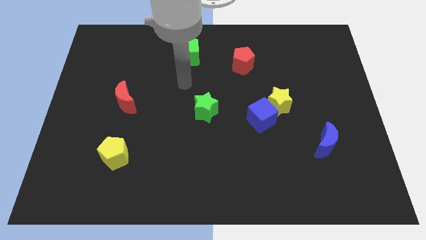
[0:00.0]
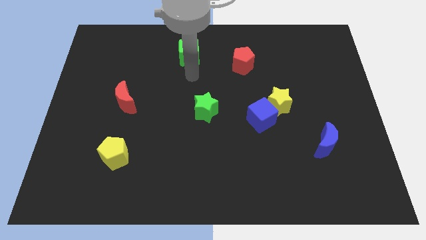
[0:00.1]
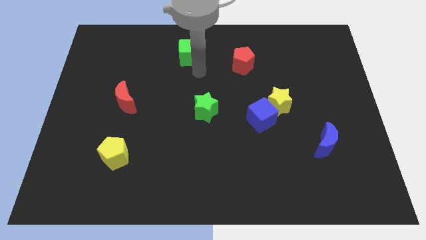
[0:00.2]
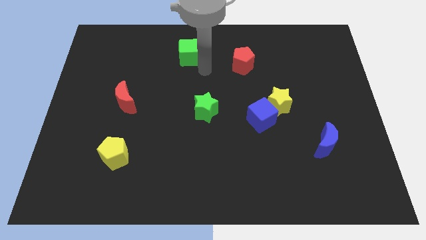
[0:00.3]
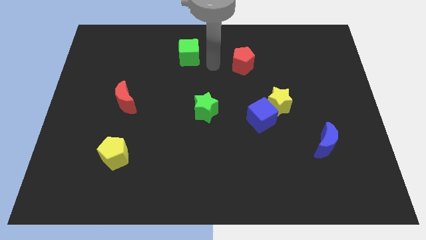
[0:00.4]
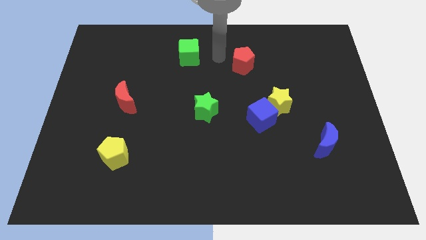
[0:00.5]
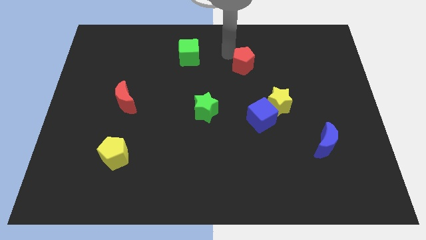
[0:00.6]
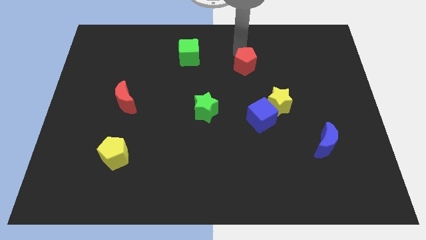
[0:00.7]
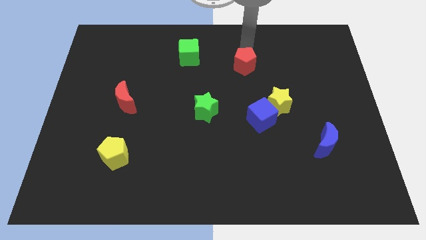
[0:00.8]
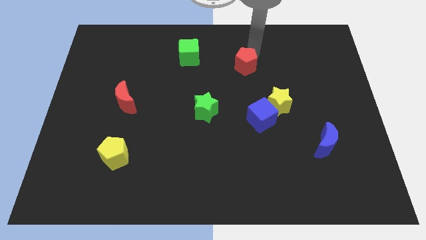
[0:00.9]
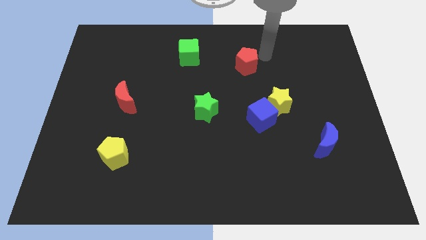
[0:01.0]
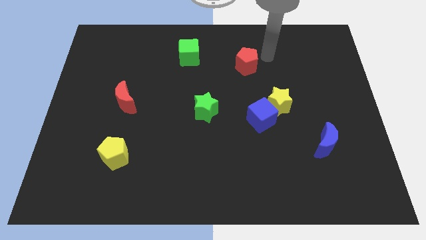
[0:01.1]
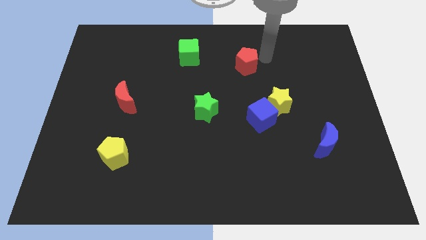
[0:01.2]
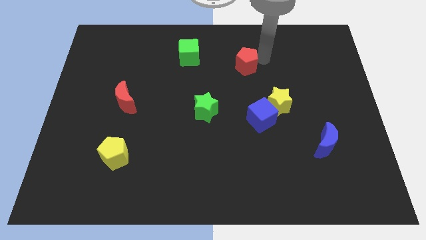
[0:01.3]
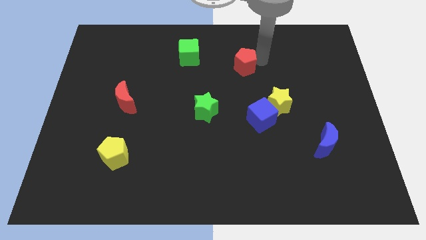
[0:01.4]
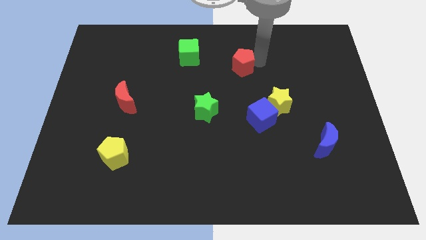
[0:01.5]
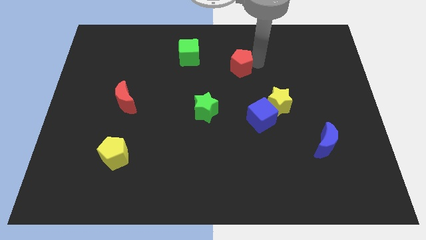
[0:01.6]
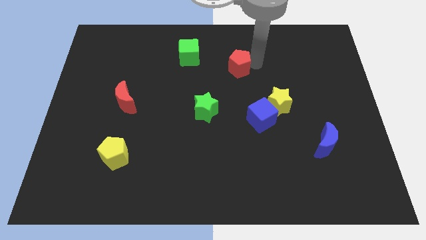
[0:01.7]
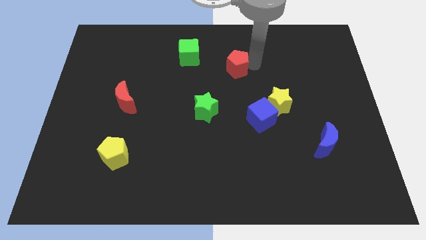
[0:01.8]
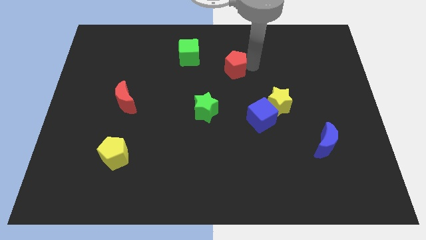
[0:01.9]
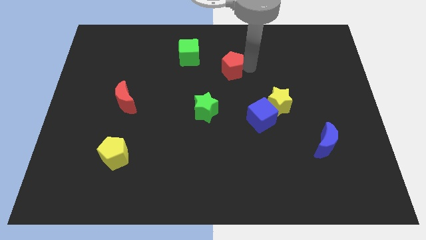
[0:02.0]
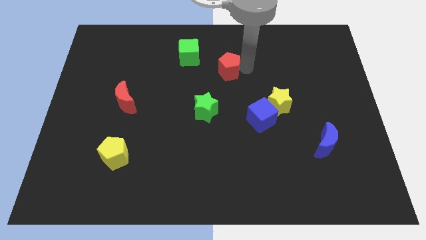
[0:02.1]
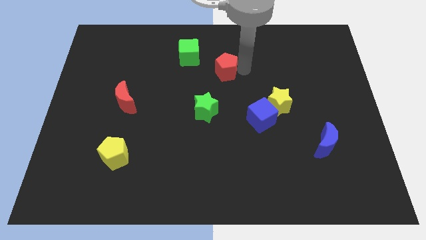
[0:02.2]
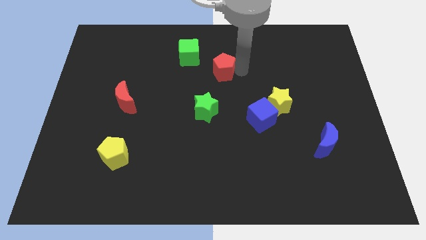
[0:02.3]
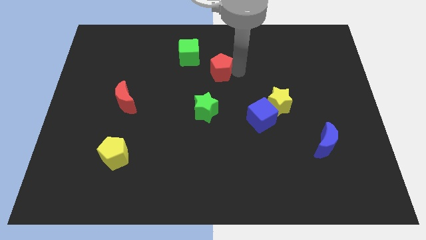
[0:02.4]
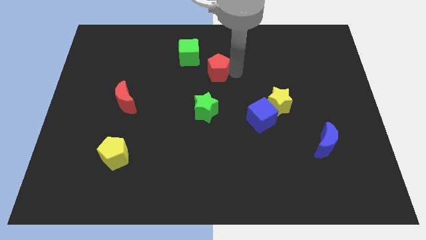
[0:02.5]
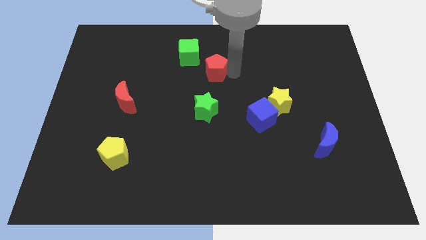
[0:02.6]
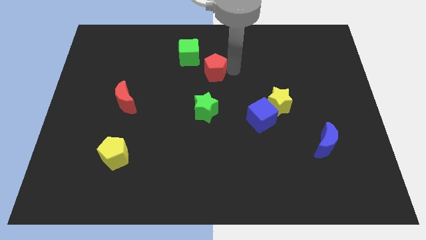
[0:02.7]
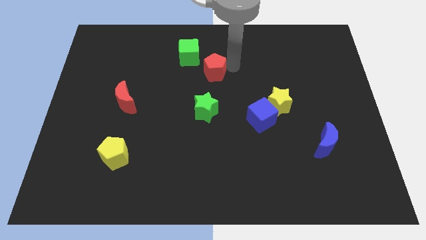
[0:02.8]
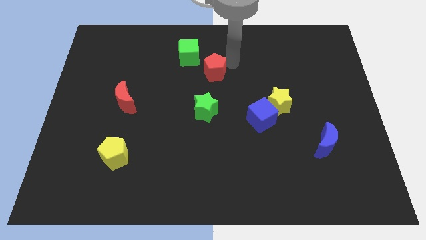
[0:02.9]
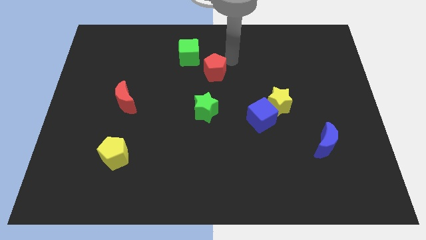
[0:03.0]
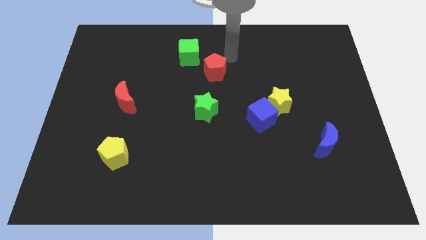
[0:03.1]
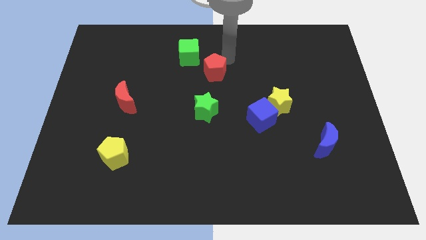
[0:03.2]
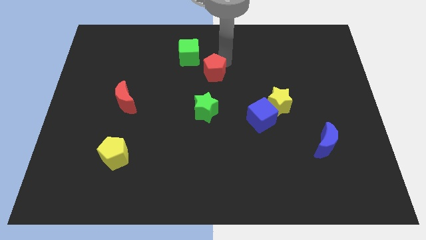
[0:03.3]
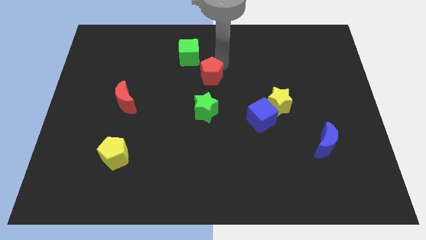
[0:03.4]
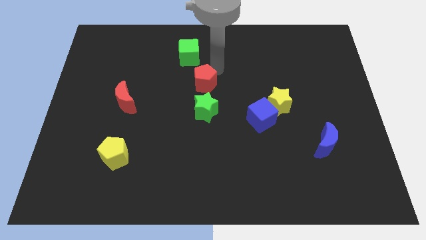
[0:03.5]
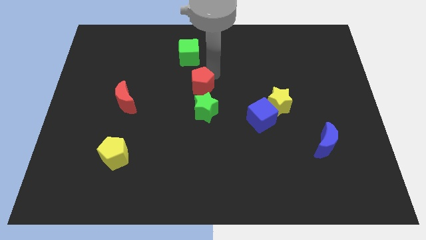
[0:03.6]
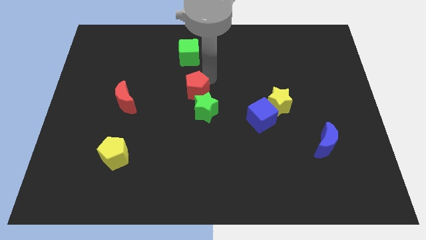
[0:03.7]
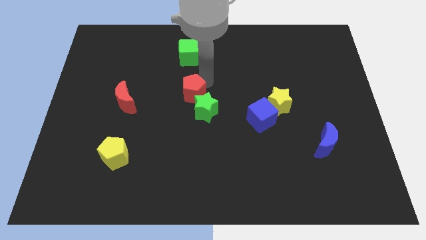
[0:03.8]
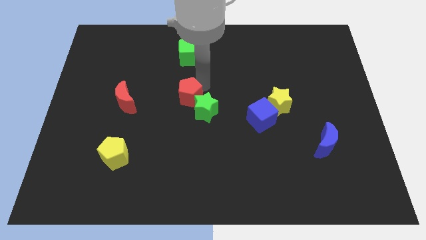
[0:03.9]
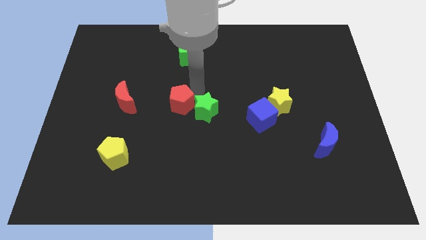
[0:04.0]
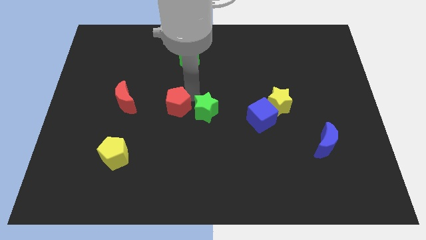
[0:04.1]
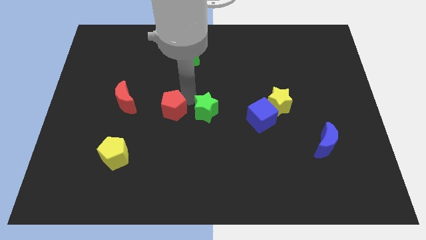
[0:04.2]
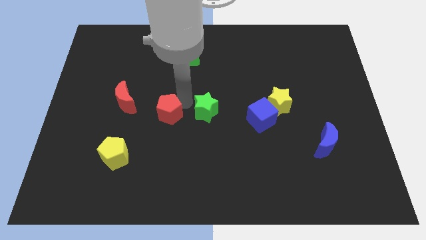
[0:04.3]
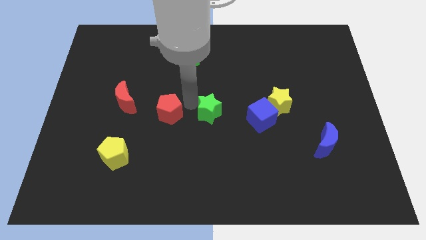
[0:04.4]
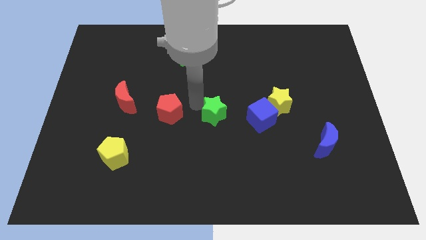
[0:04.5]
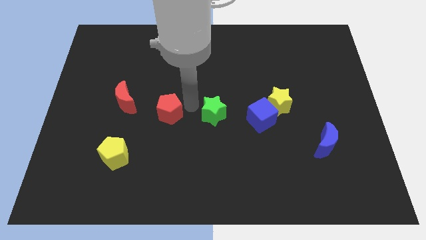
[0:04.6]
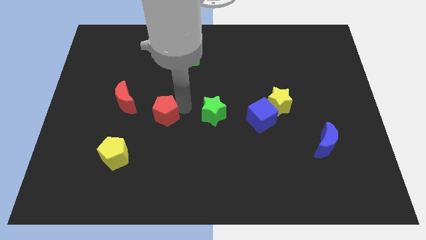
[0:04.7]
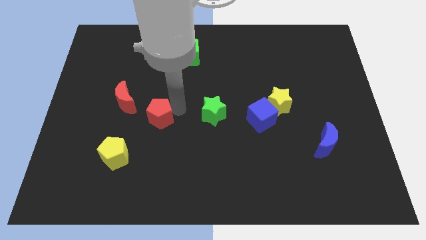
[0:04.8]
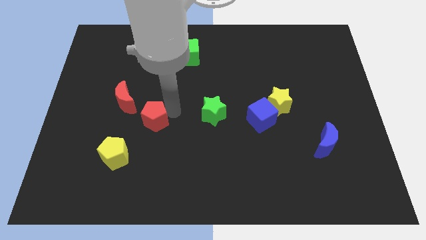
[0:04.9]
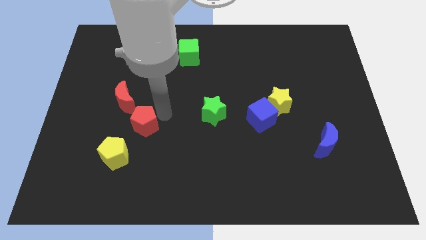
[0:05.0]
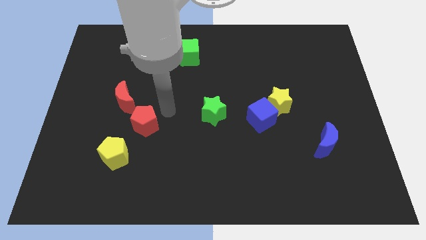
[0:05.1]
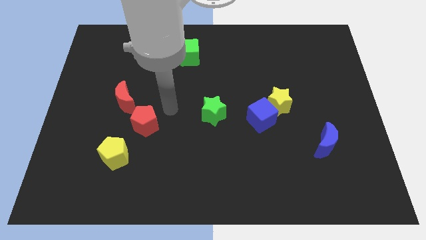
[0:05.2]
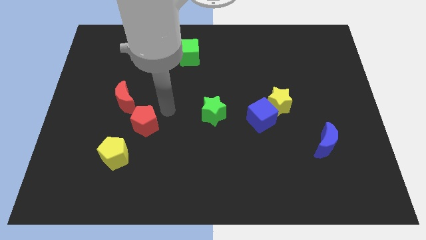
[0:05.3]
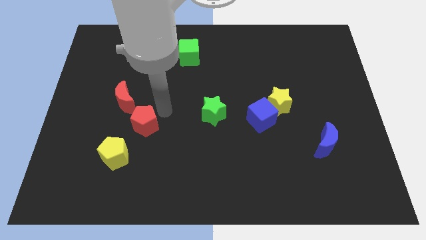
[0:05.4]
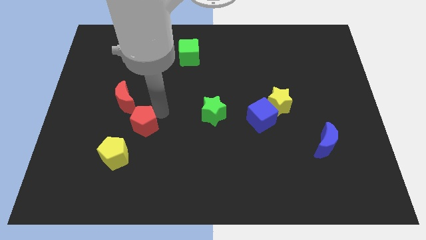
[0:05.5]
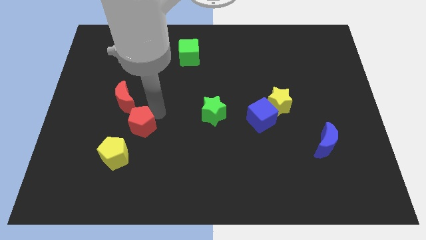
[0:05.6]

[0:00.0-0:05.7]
push the red pentagon to the bottom of the red moon

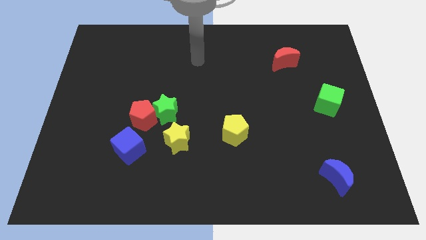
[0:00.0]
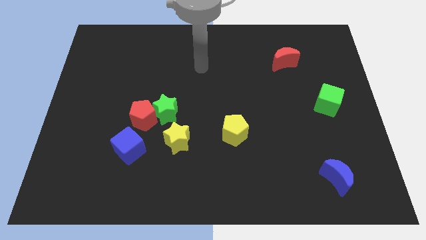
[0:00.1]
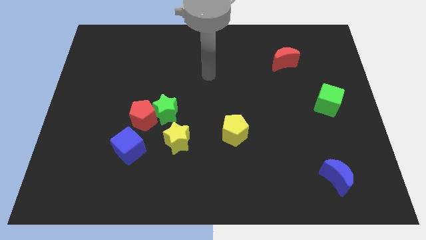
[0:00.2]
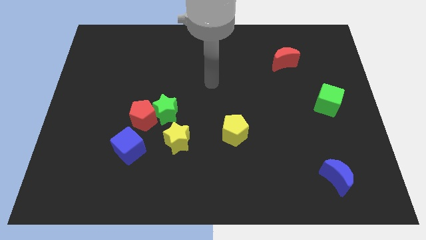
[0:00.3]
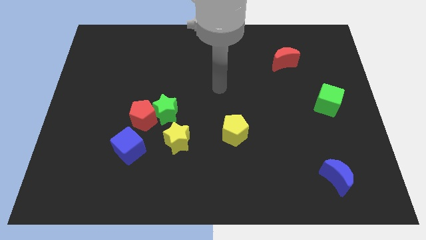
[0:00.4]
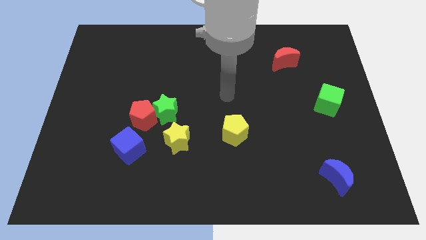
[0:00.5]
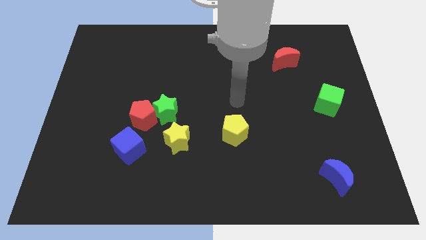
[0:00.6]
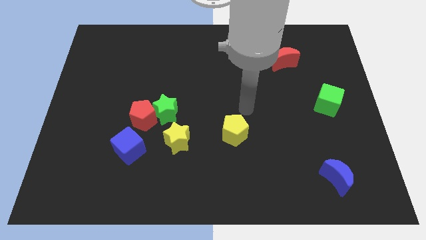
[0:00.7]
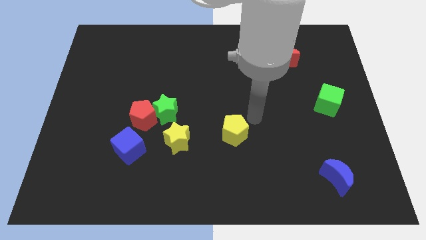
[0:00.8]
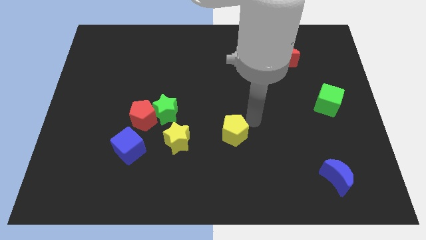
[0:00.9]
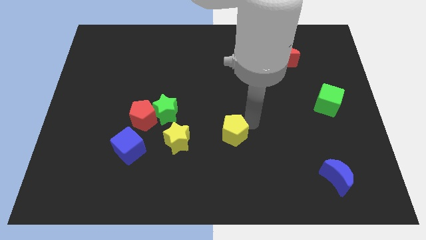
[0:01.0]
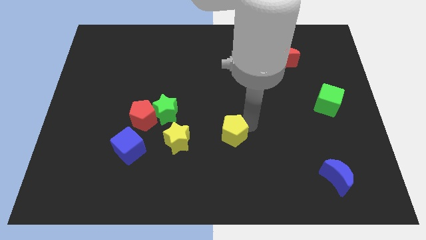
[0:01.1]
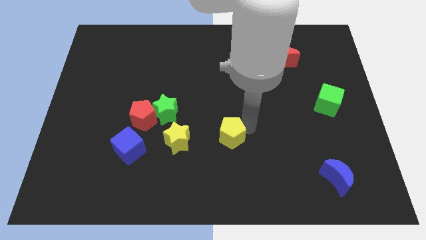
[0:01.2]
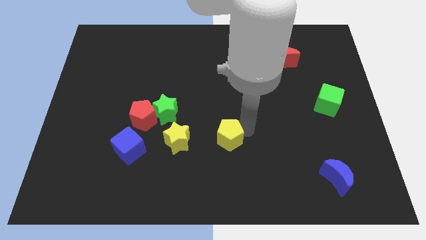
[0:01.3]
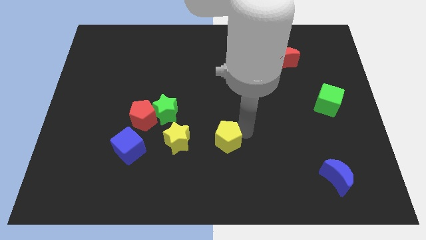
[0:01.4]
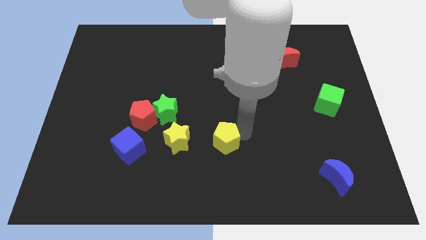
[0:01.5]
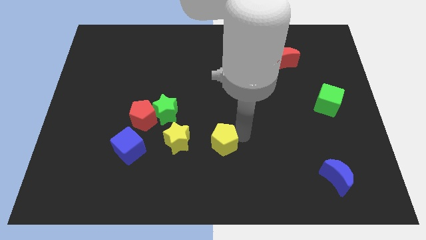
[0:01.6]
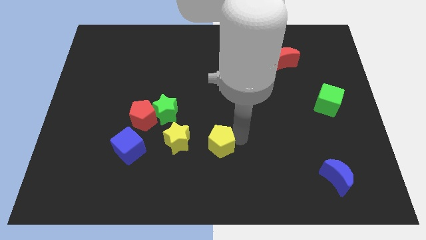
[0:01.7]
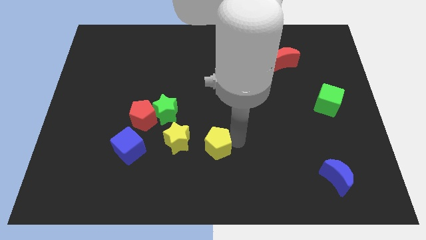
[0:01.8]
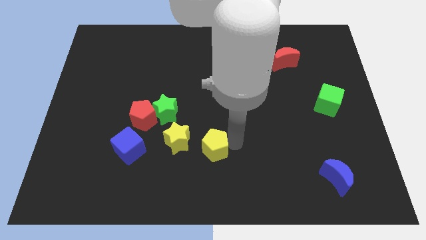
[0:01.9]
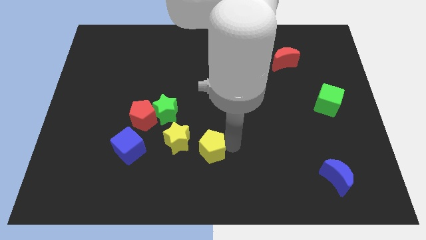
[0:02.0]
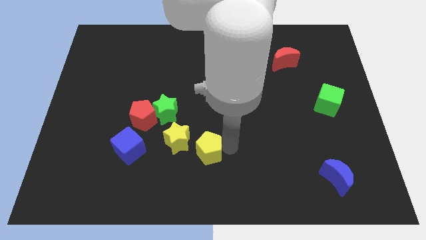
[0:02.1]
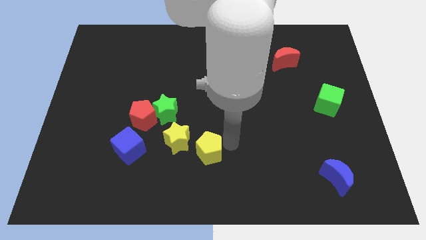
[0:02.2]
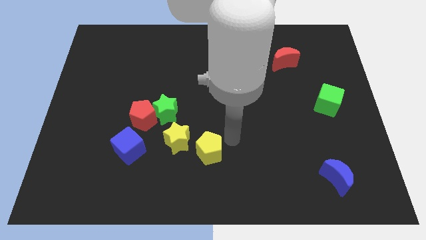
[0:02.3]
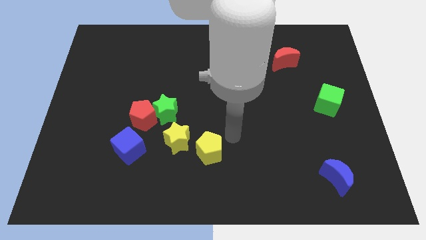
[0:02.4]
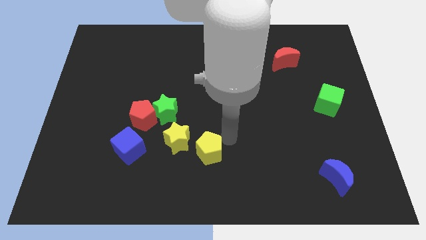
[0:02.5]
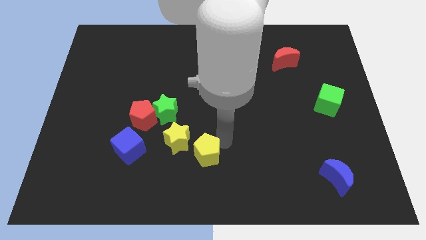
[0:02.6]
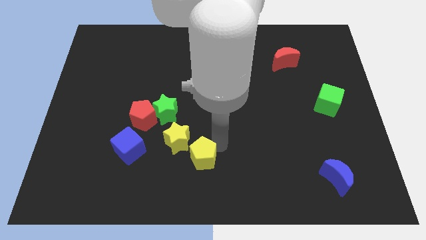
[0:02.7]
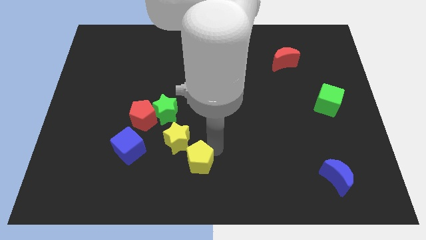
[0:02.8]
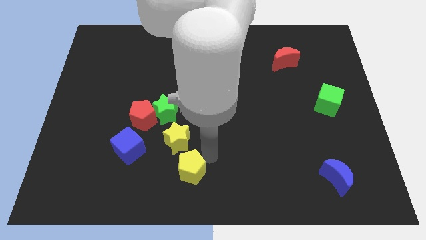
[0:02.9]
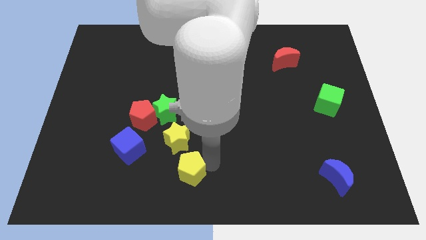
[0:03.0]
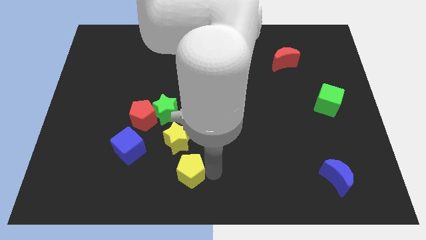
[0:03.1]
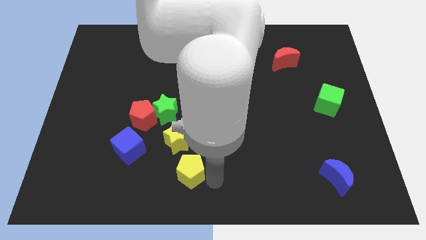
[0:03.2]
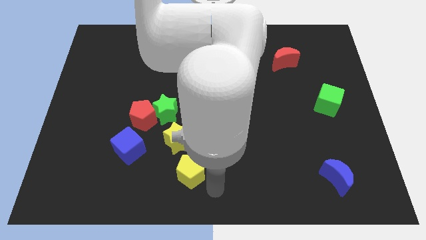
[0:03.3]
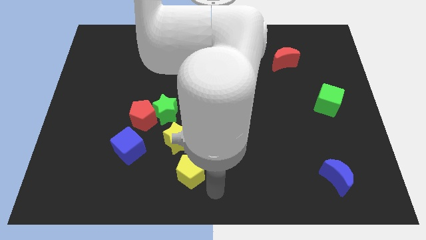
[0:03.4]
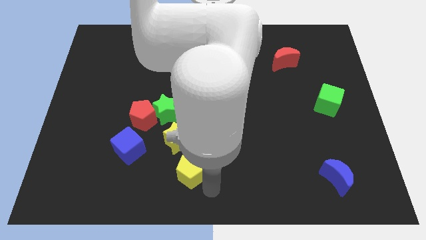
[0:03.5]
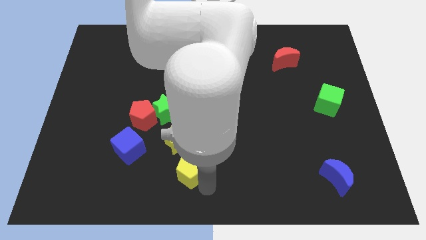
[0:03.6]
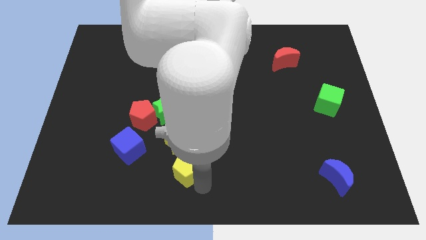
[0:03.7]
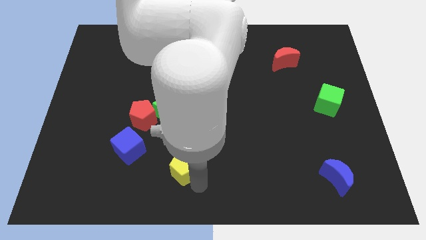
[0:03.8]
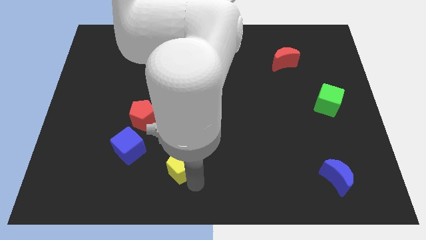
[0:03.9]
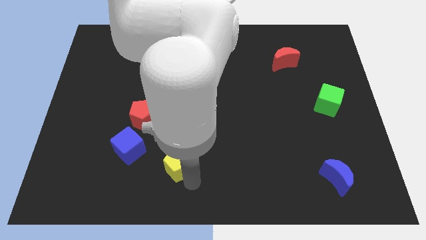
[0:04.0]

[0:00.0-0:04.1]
slide the yellow pentagon to the bottom side of the green star
